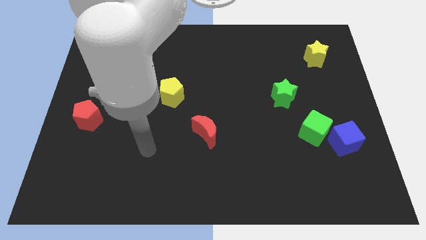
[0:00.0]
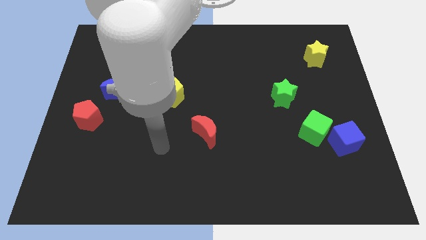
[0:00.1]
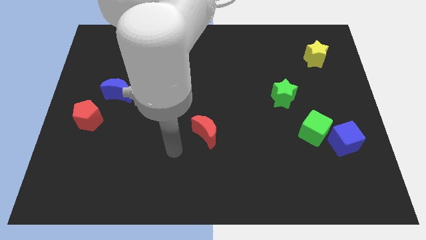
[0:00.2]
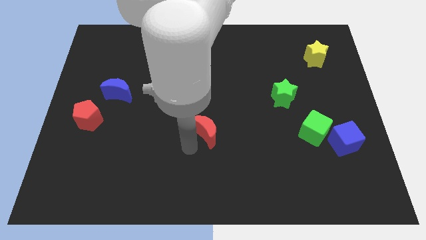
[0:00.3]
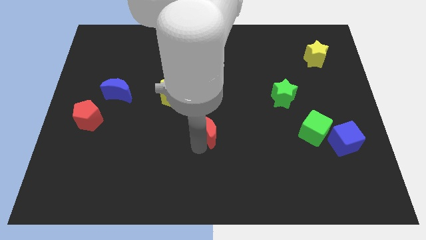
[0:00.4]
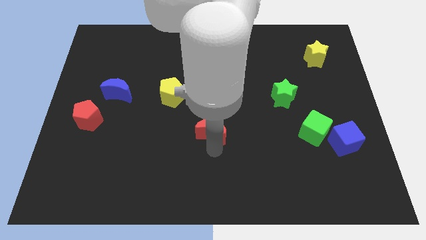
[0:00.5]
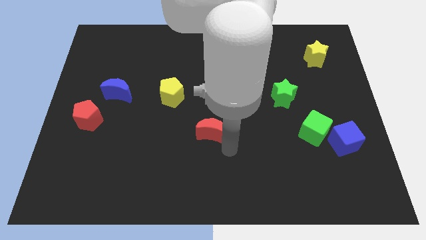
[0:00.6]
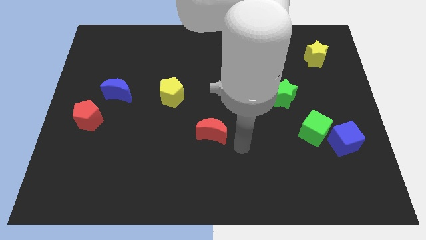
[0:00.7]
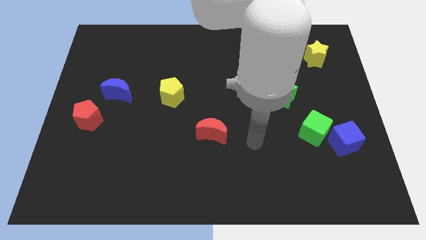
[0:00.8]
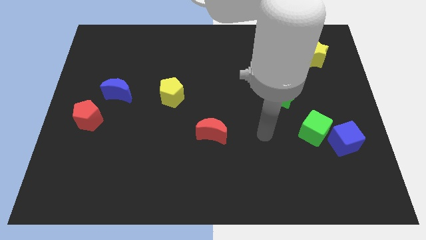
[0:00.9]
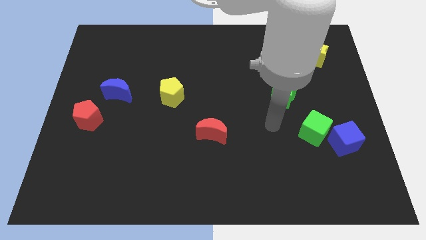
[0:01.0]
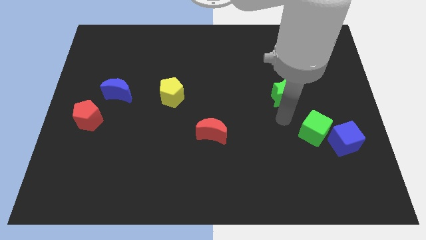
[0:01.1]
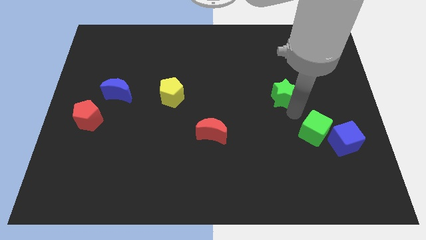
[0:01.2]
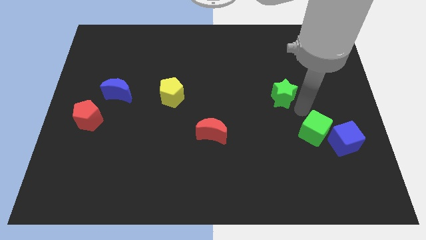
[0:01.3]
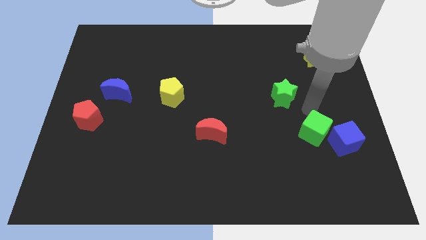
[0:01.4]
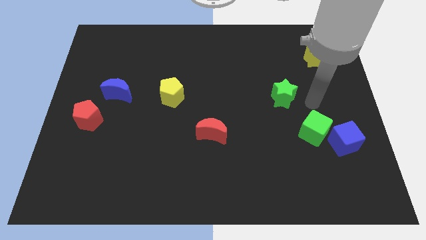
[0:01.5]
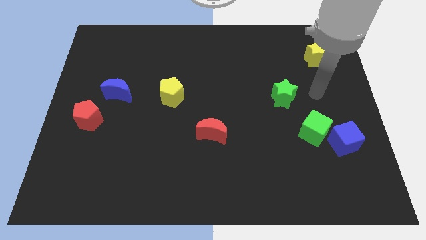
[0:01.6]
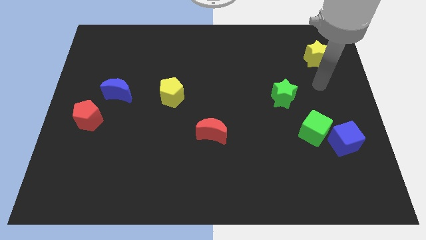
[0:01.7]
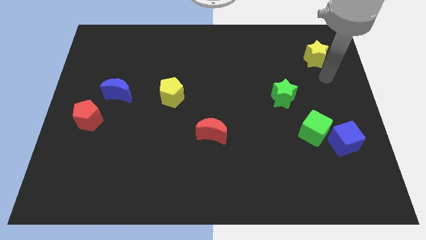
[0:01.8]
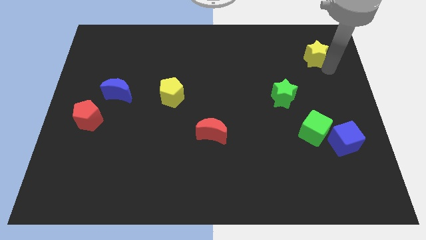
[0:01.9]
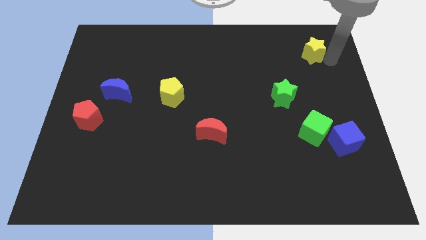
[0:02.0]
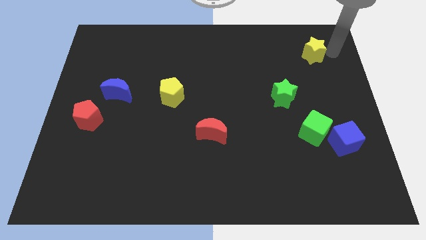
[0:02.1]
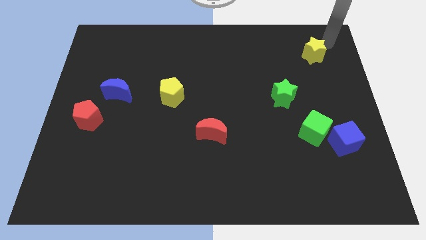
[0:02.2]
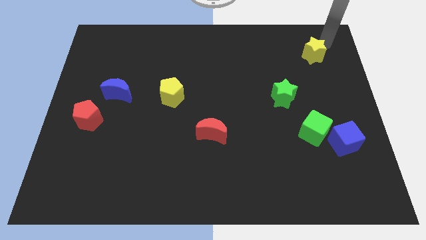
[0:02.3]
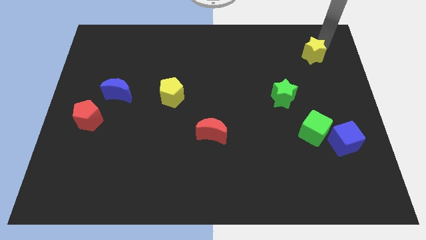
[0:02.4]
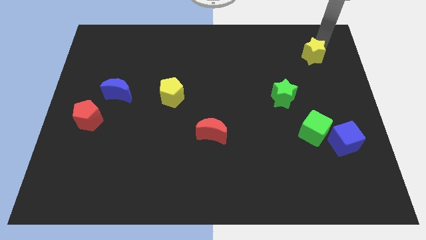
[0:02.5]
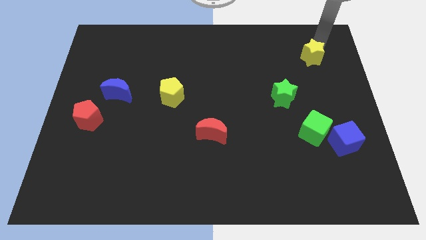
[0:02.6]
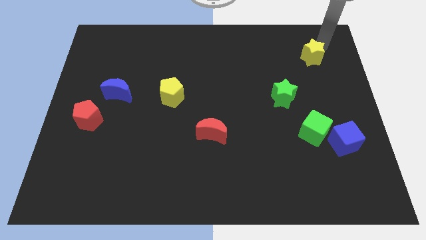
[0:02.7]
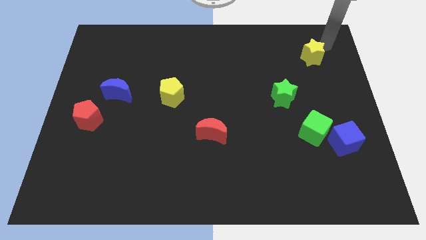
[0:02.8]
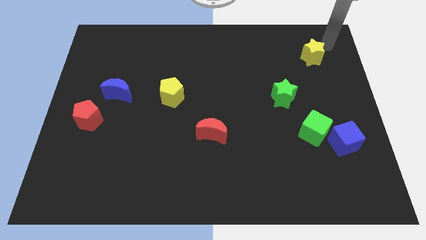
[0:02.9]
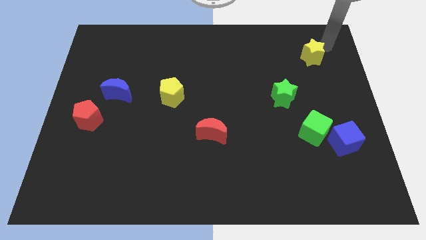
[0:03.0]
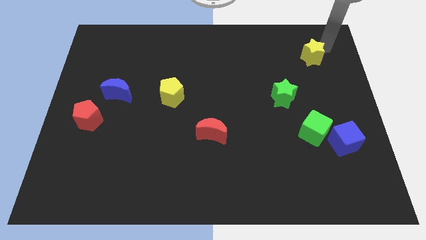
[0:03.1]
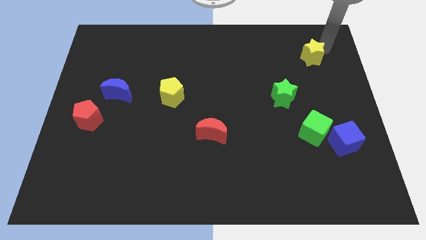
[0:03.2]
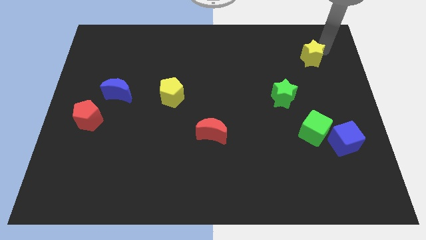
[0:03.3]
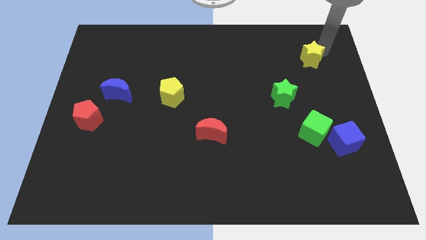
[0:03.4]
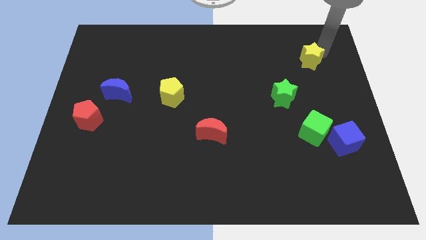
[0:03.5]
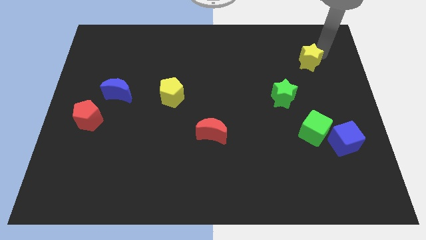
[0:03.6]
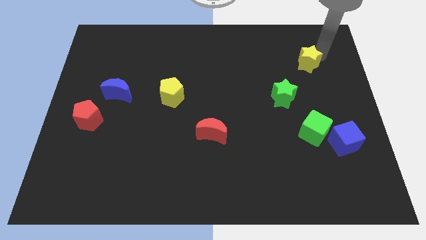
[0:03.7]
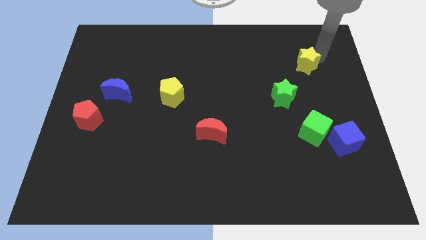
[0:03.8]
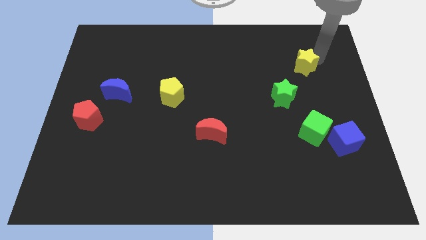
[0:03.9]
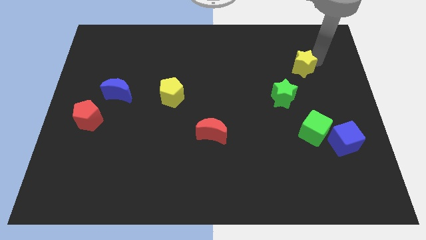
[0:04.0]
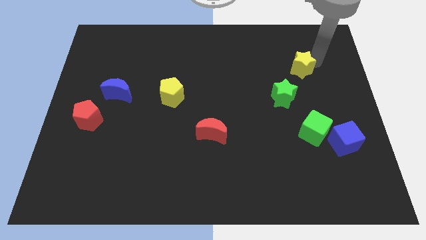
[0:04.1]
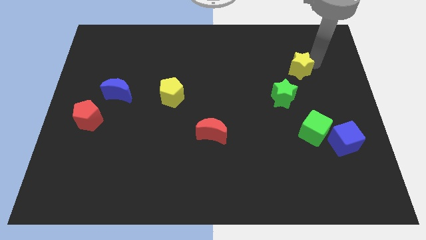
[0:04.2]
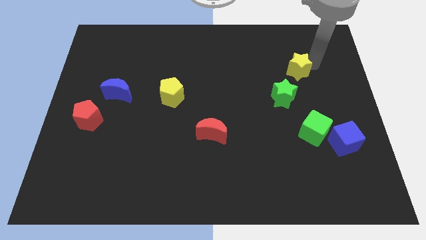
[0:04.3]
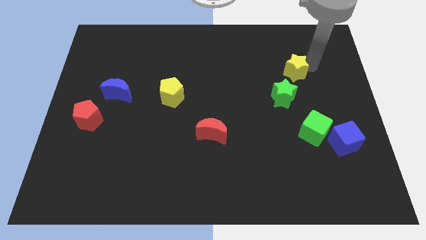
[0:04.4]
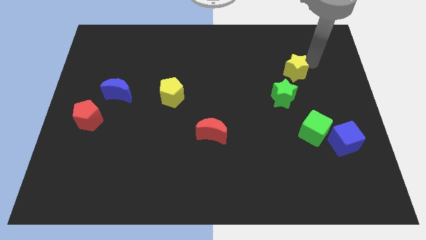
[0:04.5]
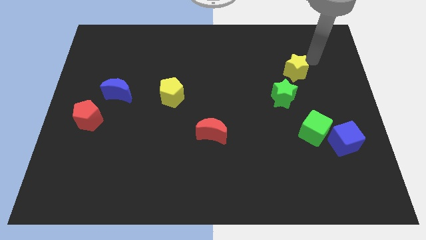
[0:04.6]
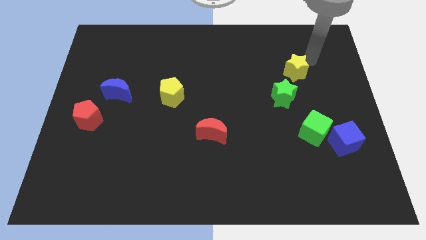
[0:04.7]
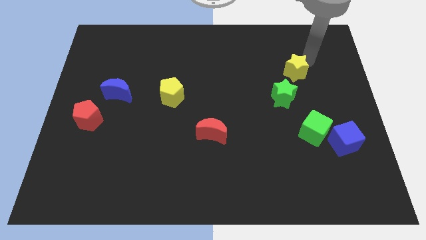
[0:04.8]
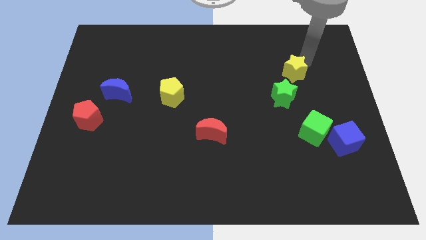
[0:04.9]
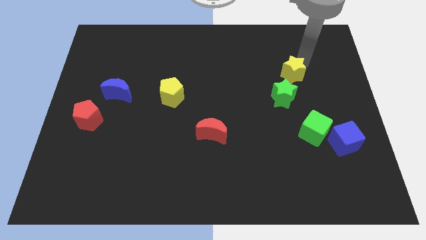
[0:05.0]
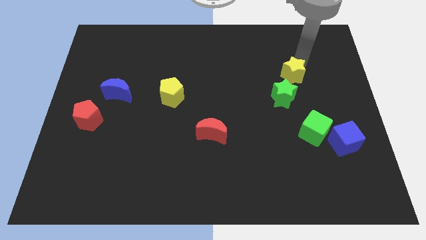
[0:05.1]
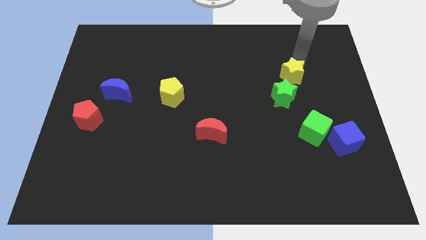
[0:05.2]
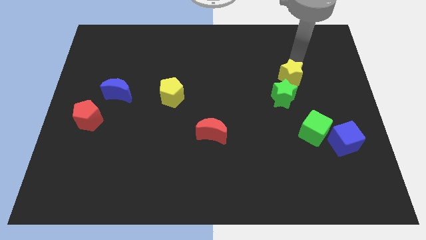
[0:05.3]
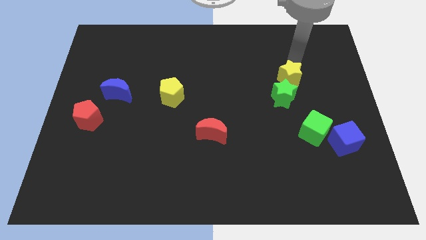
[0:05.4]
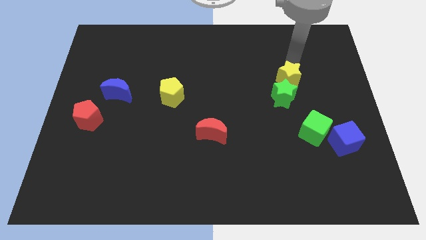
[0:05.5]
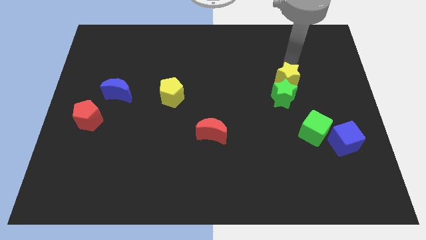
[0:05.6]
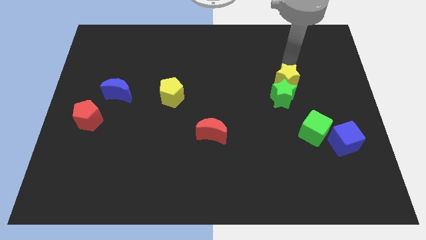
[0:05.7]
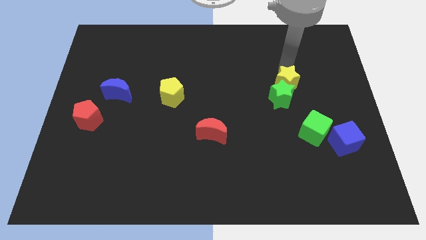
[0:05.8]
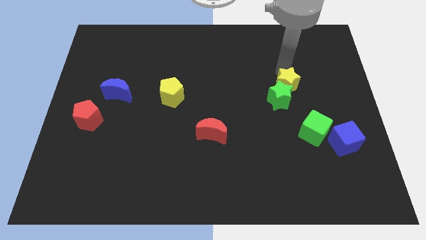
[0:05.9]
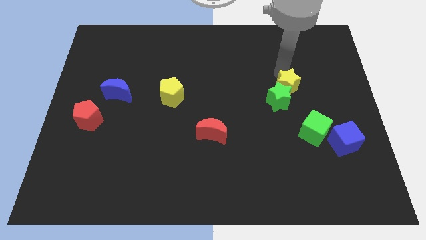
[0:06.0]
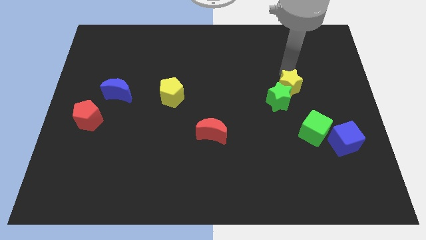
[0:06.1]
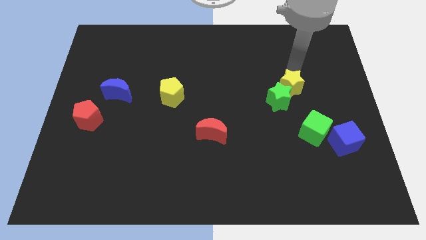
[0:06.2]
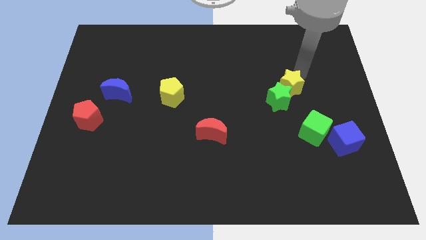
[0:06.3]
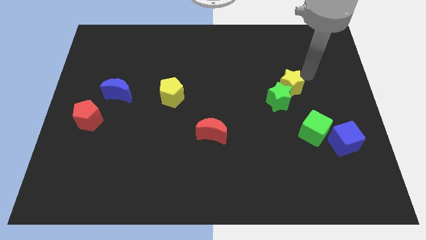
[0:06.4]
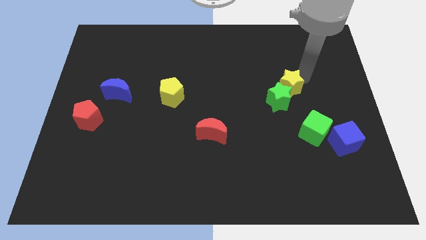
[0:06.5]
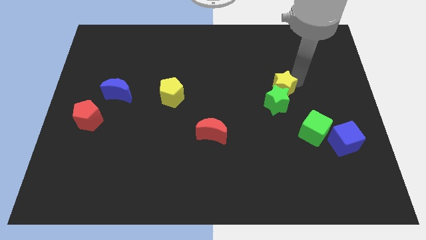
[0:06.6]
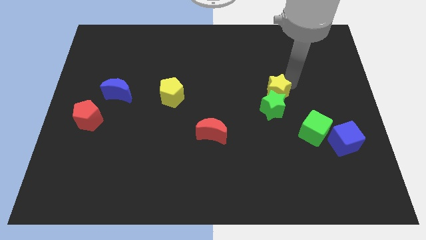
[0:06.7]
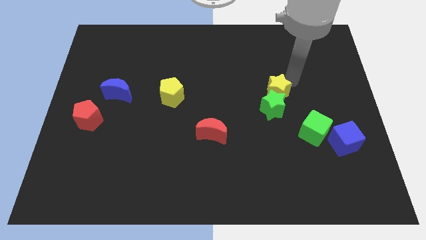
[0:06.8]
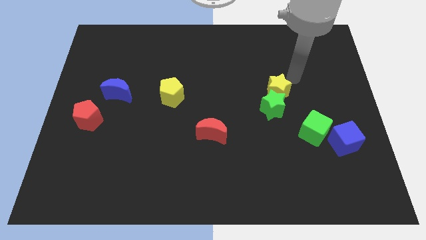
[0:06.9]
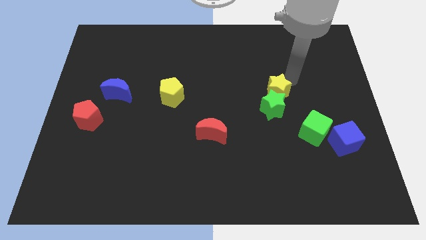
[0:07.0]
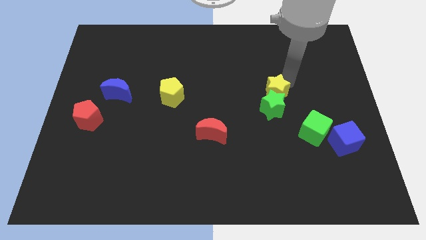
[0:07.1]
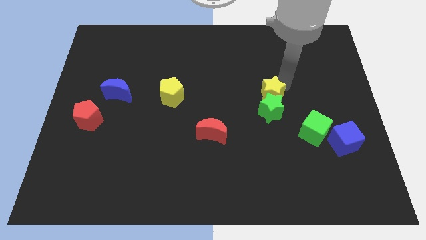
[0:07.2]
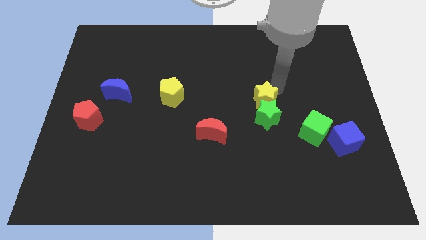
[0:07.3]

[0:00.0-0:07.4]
slide the yellow star diagonally downwards and left

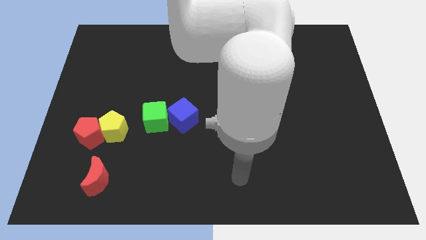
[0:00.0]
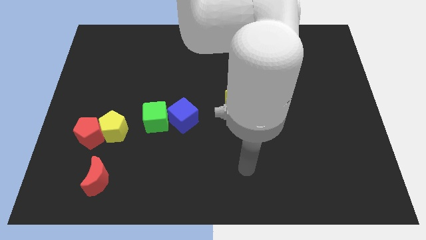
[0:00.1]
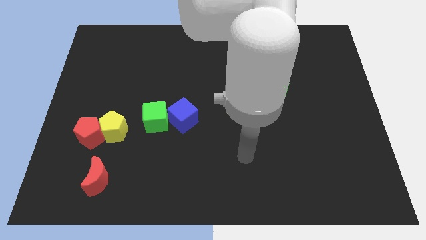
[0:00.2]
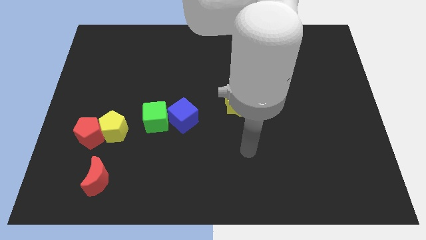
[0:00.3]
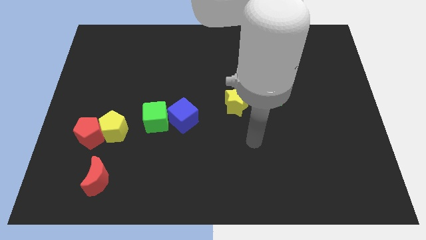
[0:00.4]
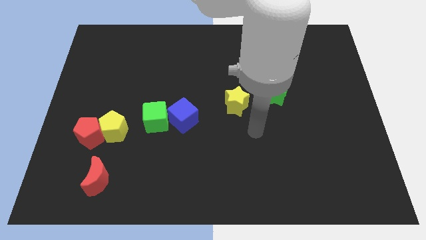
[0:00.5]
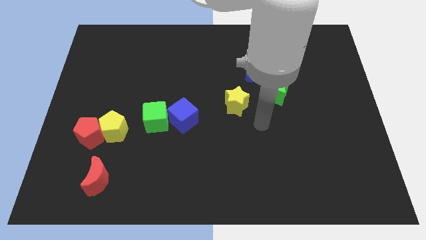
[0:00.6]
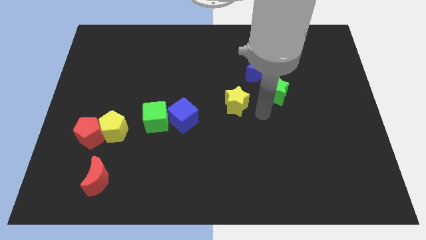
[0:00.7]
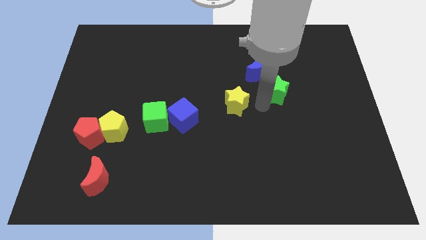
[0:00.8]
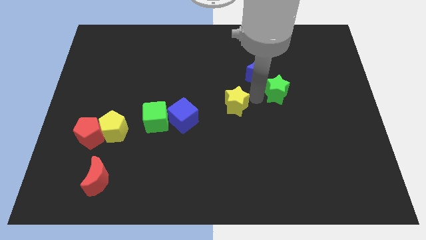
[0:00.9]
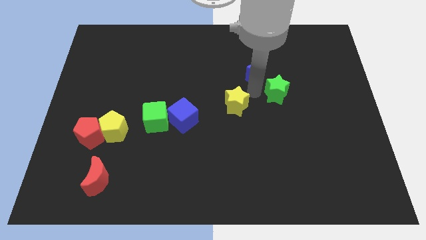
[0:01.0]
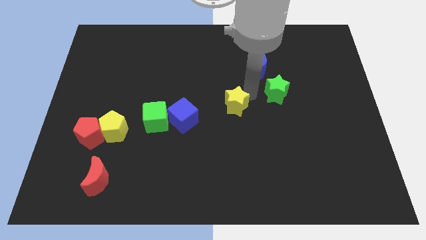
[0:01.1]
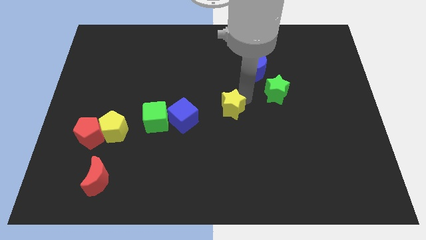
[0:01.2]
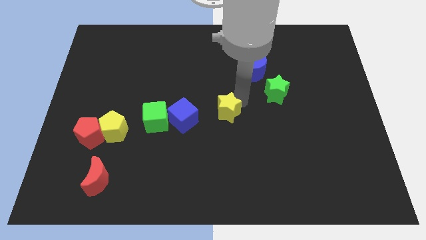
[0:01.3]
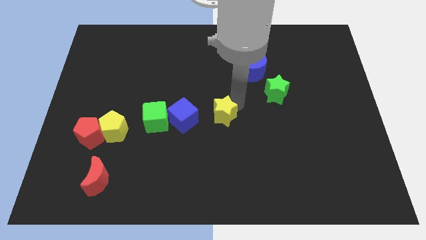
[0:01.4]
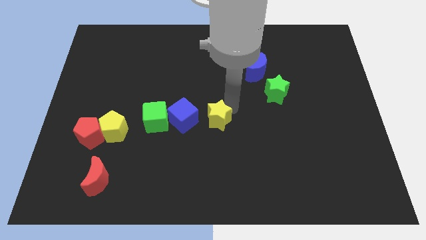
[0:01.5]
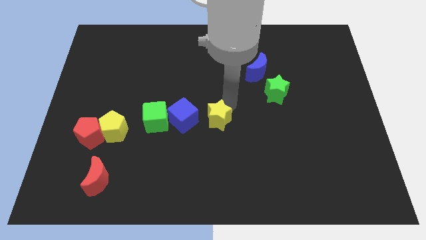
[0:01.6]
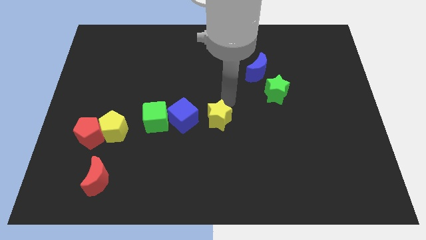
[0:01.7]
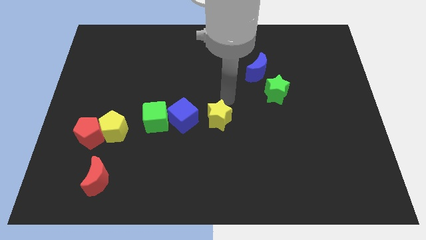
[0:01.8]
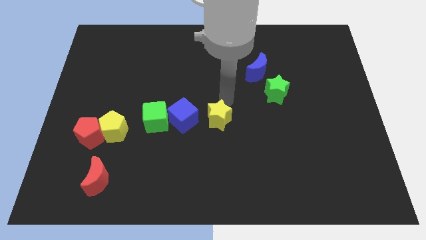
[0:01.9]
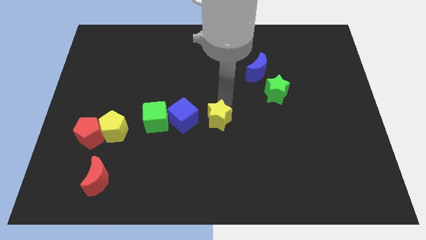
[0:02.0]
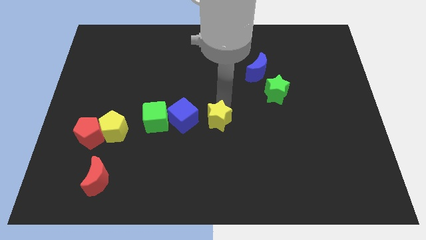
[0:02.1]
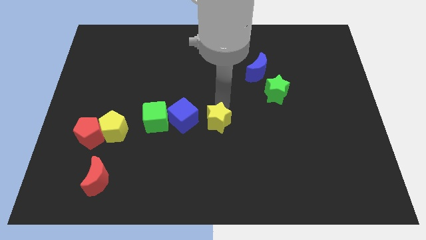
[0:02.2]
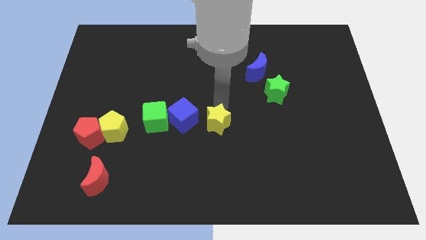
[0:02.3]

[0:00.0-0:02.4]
slide the yellow star diagonally downwards and to the left somewhat
